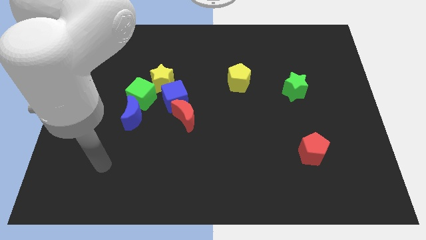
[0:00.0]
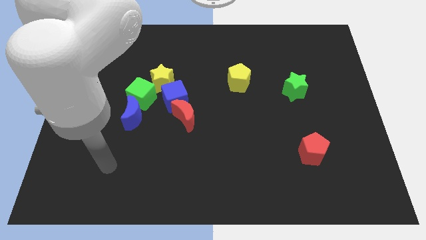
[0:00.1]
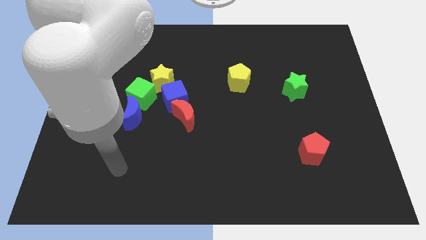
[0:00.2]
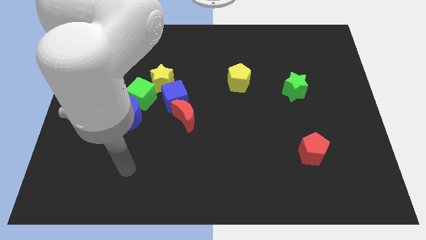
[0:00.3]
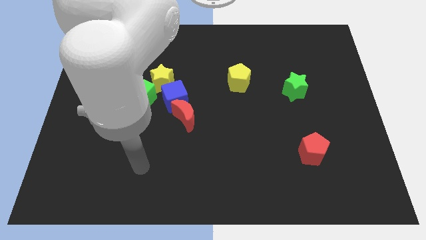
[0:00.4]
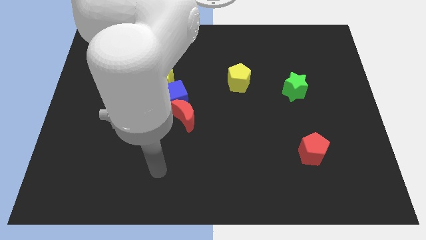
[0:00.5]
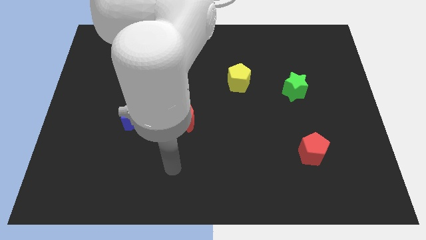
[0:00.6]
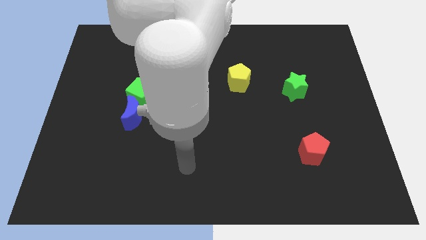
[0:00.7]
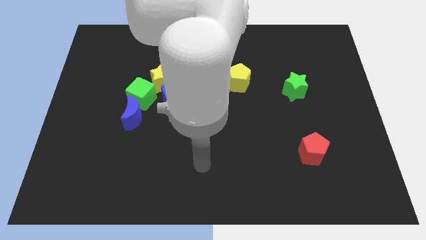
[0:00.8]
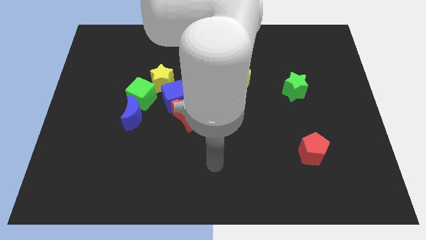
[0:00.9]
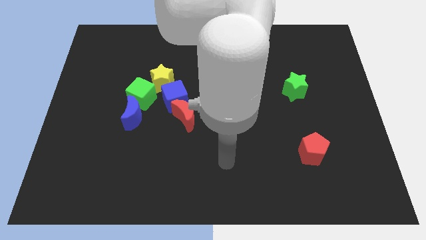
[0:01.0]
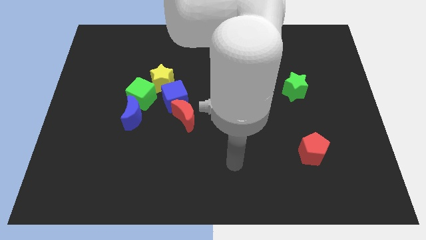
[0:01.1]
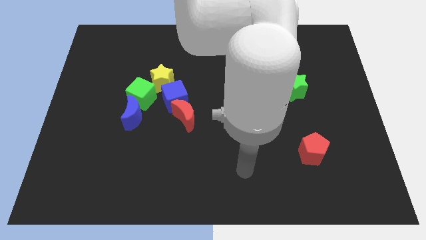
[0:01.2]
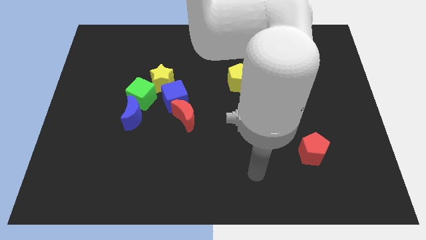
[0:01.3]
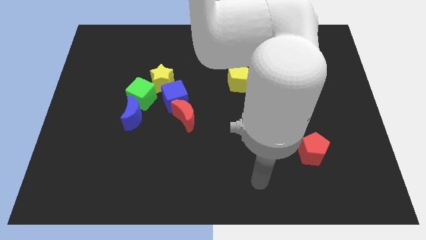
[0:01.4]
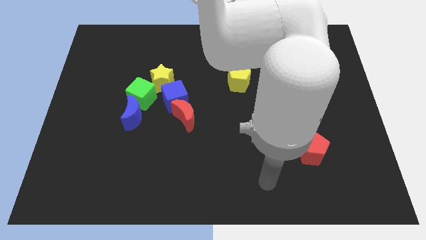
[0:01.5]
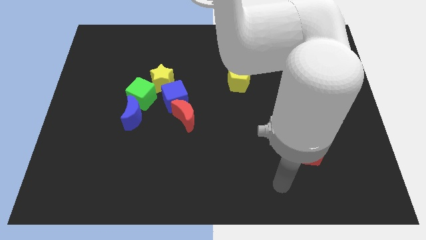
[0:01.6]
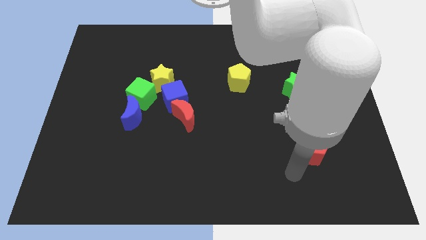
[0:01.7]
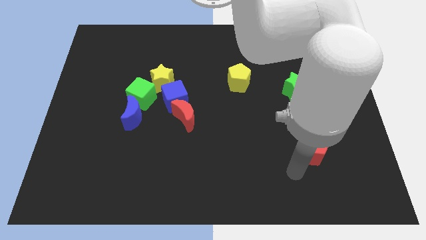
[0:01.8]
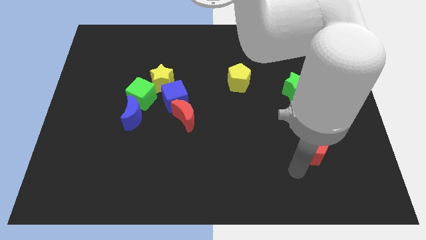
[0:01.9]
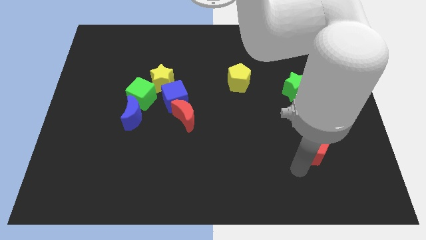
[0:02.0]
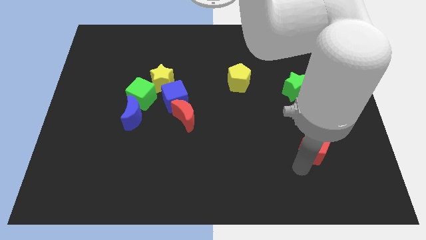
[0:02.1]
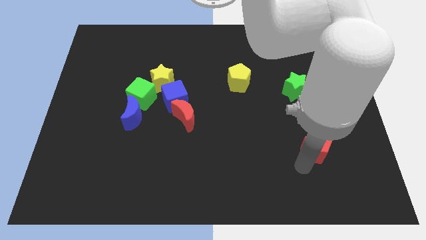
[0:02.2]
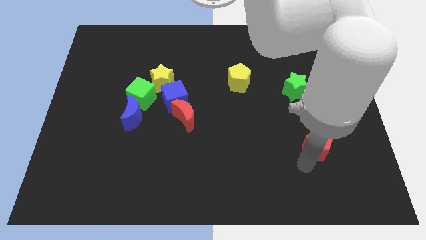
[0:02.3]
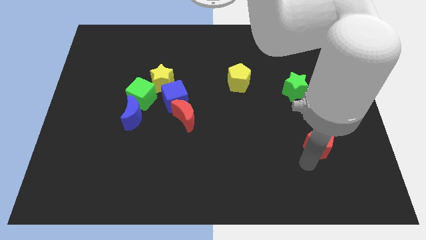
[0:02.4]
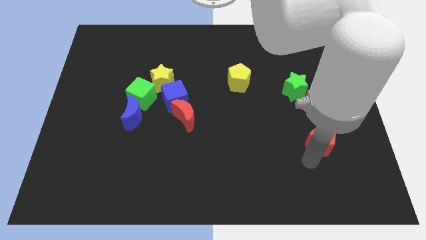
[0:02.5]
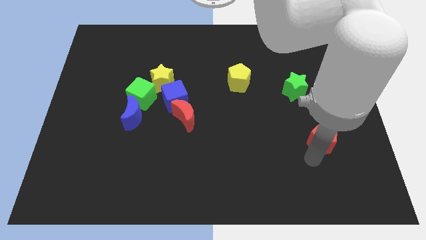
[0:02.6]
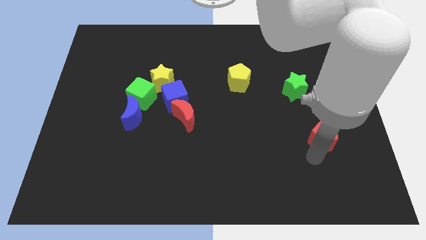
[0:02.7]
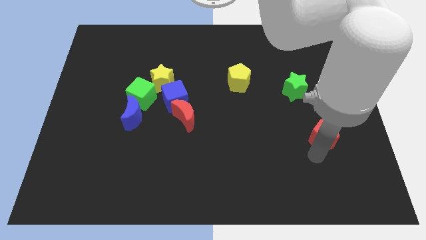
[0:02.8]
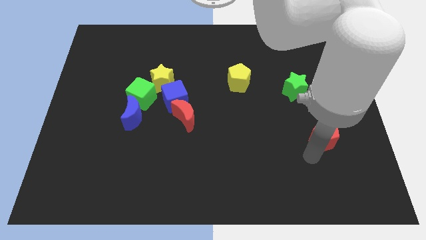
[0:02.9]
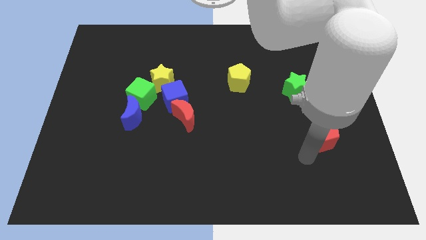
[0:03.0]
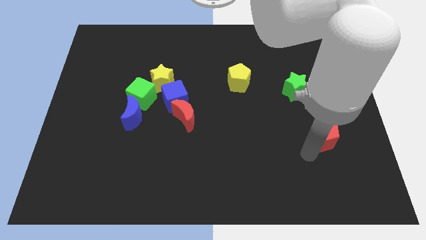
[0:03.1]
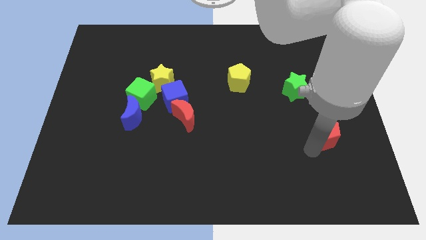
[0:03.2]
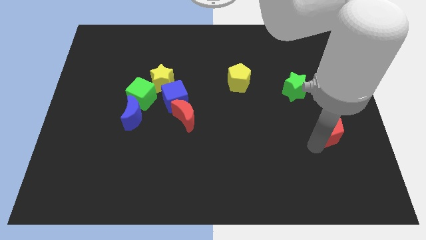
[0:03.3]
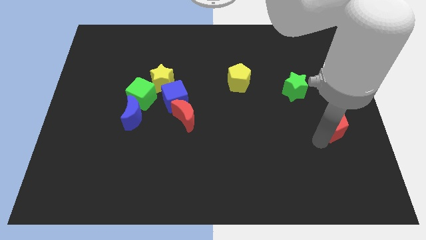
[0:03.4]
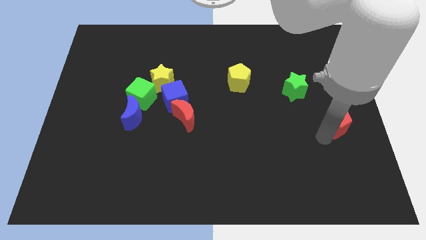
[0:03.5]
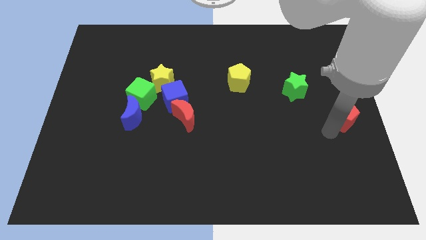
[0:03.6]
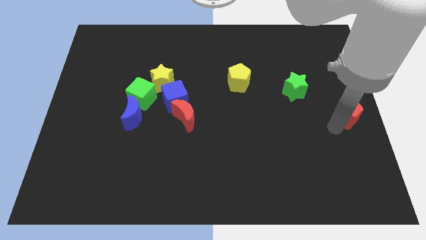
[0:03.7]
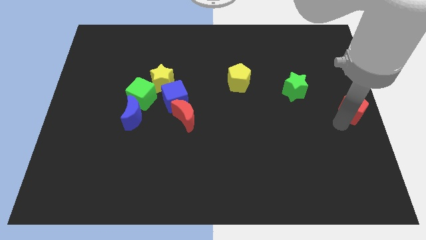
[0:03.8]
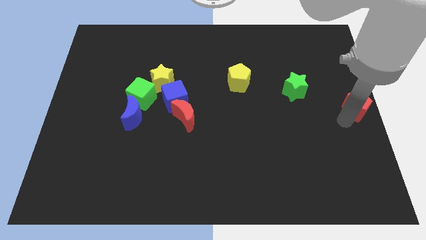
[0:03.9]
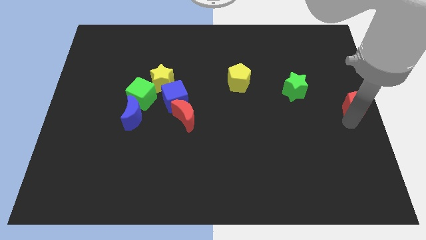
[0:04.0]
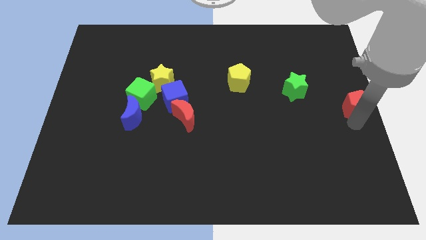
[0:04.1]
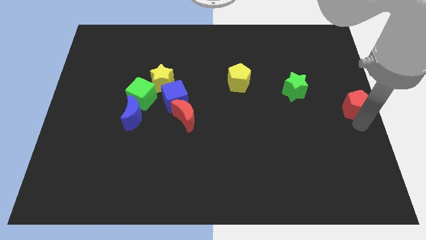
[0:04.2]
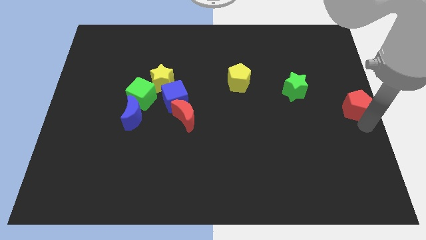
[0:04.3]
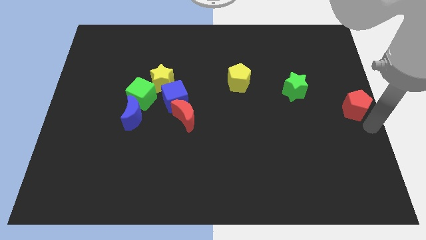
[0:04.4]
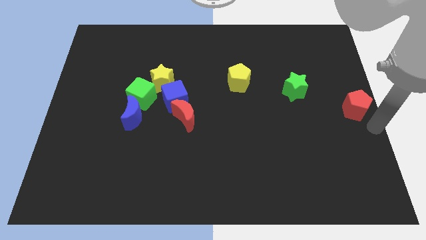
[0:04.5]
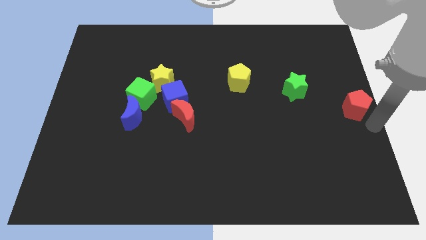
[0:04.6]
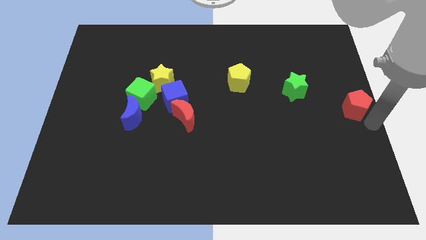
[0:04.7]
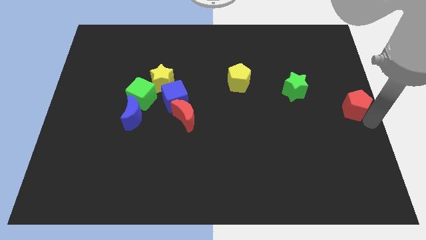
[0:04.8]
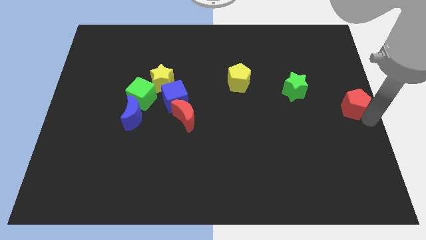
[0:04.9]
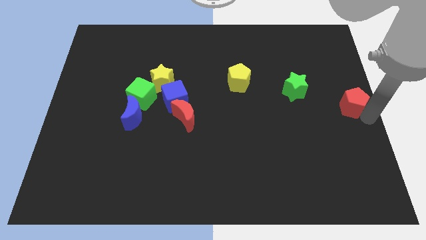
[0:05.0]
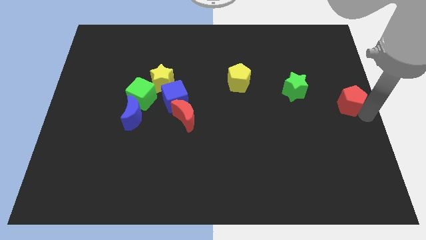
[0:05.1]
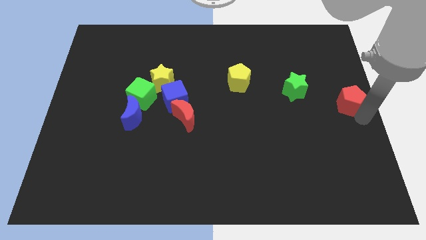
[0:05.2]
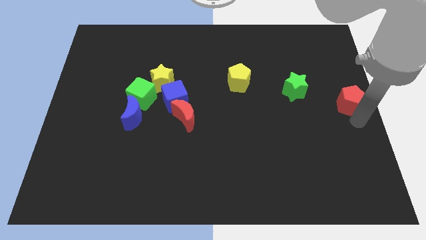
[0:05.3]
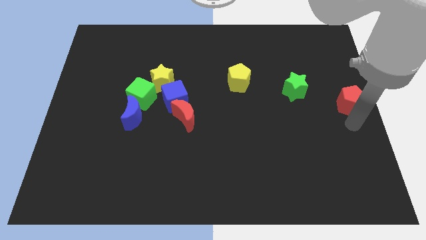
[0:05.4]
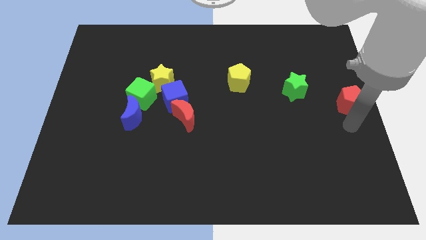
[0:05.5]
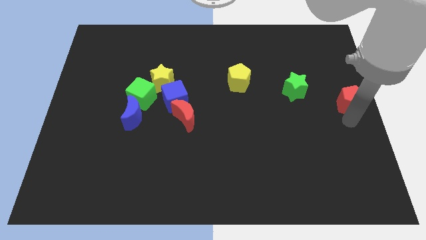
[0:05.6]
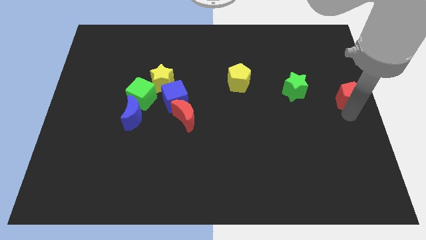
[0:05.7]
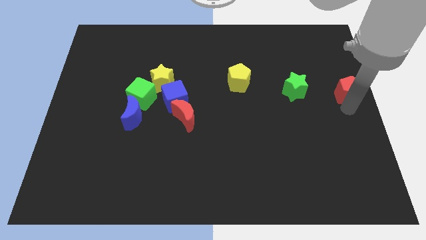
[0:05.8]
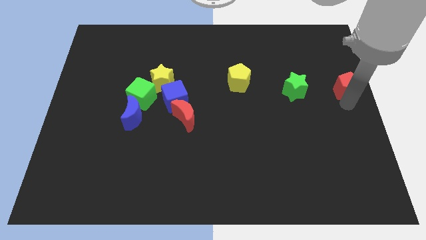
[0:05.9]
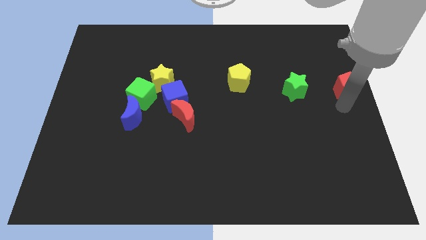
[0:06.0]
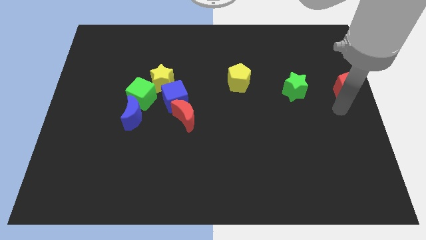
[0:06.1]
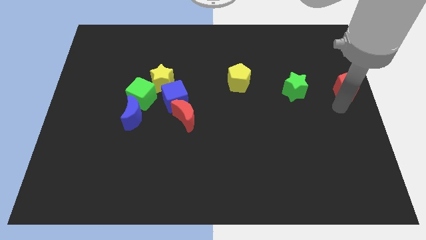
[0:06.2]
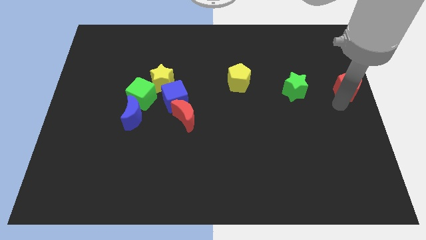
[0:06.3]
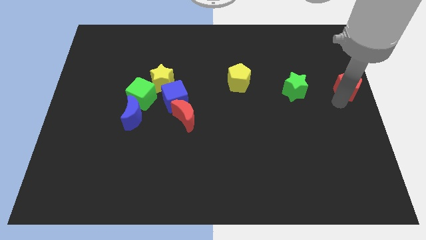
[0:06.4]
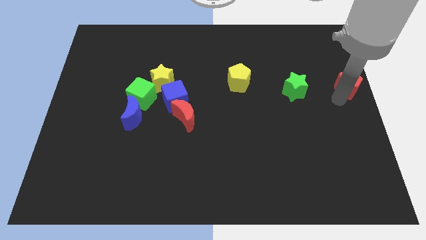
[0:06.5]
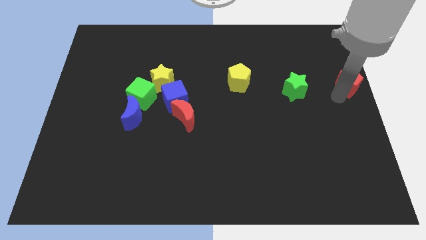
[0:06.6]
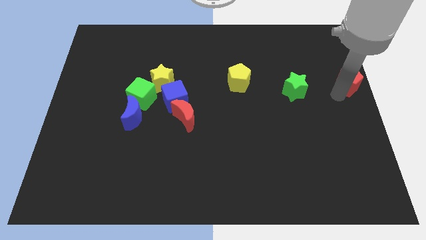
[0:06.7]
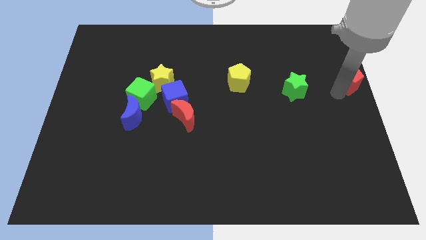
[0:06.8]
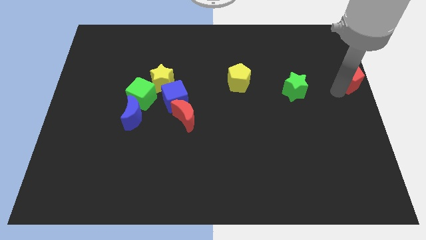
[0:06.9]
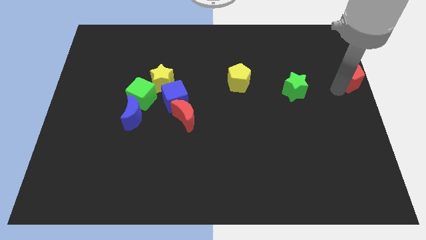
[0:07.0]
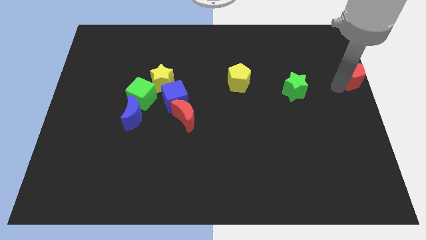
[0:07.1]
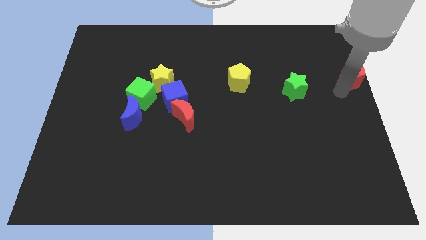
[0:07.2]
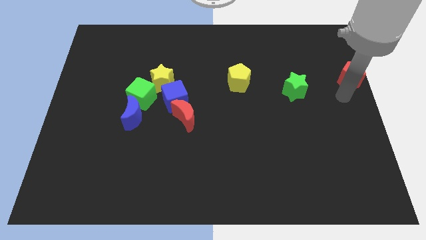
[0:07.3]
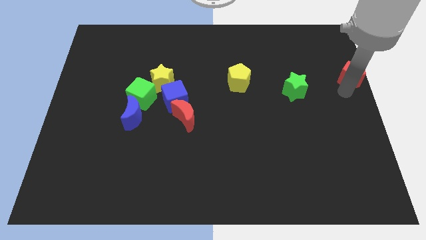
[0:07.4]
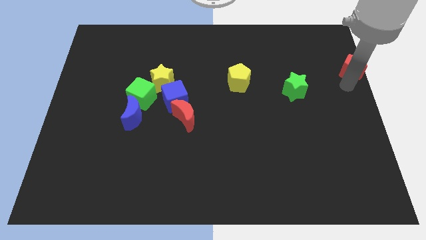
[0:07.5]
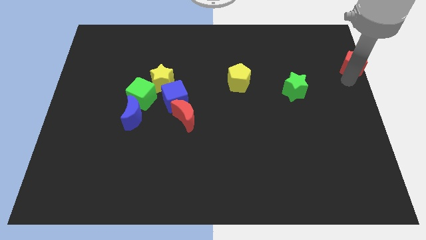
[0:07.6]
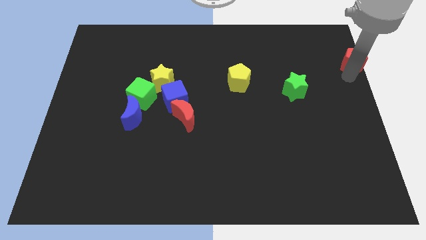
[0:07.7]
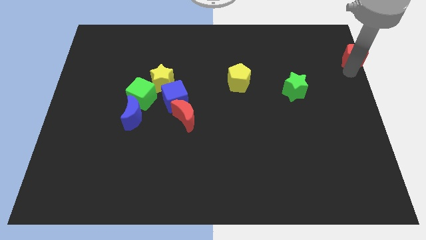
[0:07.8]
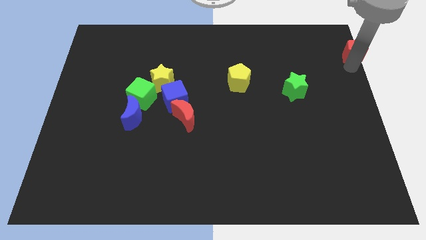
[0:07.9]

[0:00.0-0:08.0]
move the red pentagon to the upper right corner
